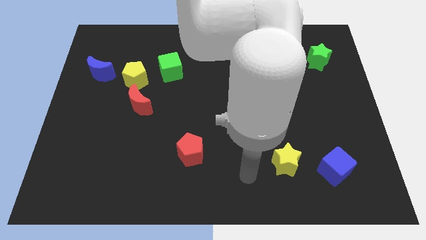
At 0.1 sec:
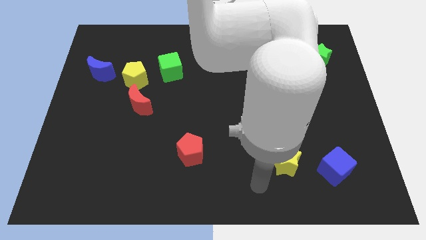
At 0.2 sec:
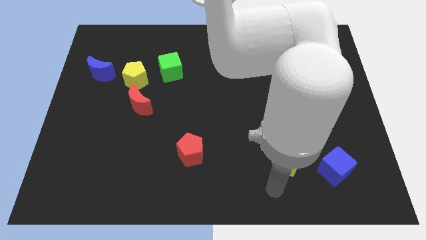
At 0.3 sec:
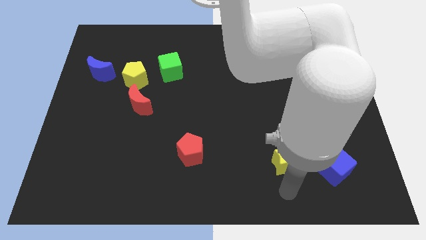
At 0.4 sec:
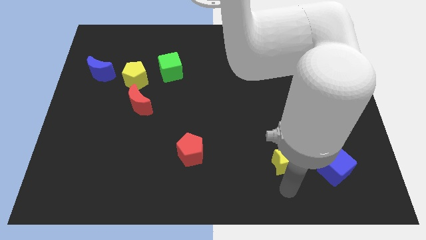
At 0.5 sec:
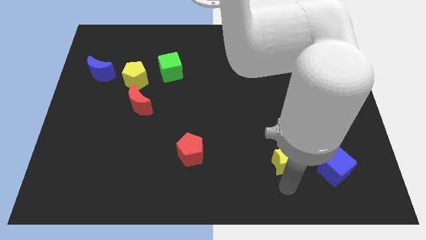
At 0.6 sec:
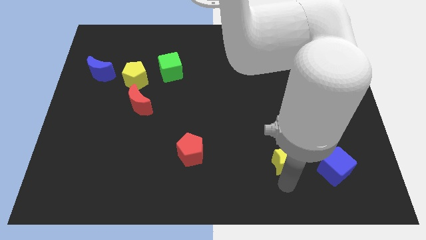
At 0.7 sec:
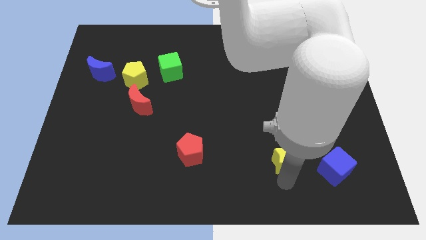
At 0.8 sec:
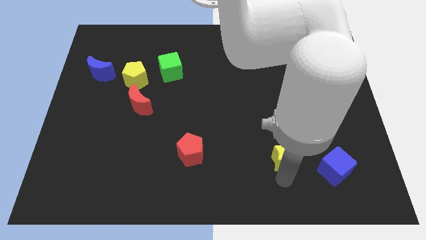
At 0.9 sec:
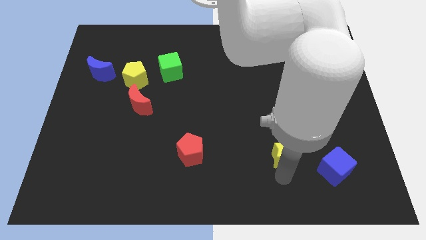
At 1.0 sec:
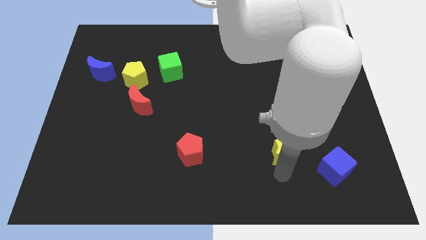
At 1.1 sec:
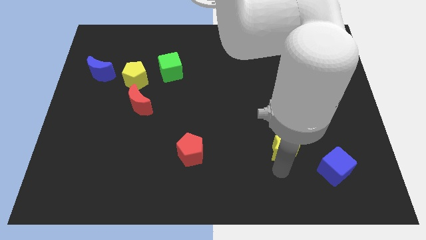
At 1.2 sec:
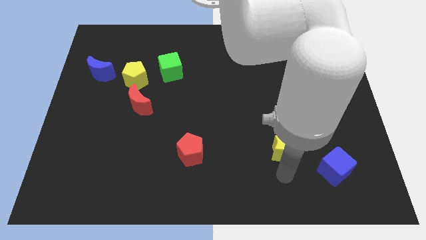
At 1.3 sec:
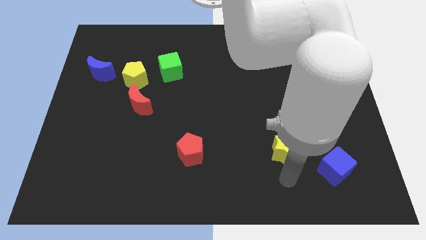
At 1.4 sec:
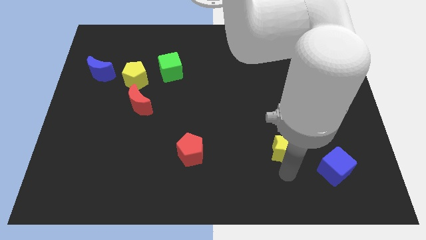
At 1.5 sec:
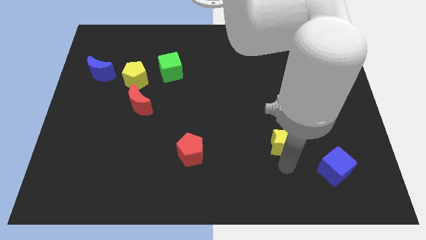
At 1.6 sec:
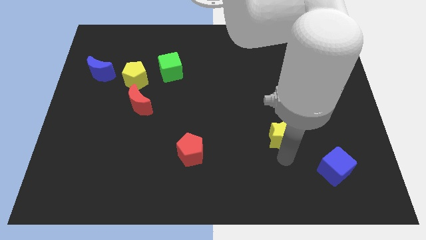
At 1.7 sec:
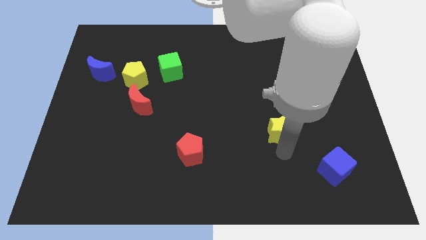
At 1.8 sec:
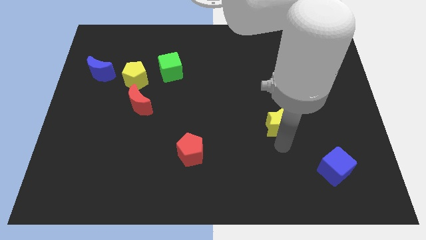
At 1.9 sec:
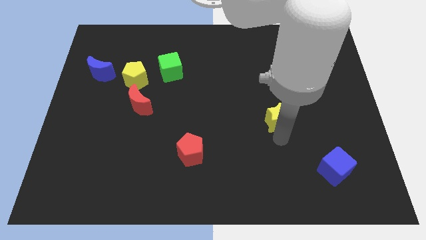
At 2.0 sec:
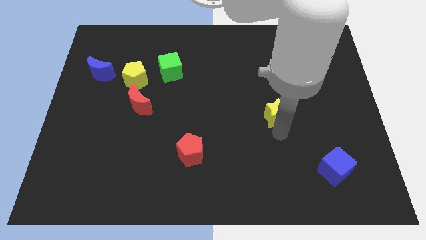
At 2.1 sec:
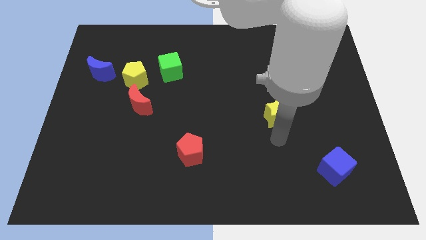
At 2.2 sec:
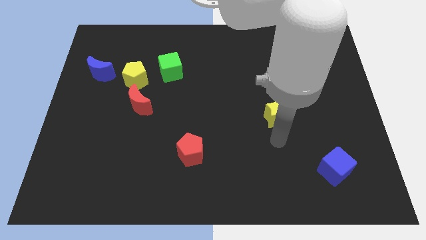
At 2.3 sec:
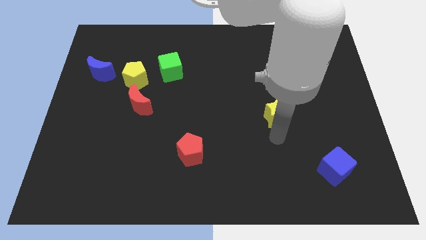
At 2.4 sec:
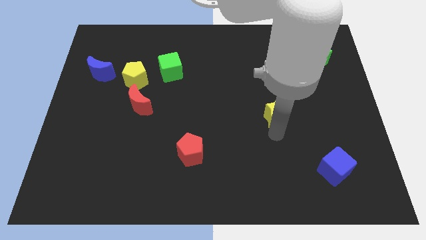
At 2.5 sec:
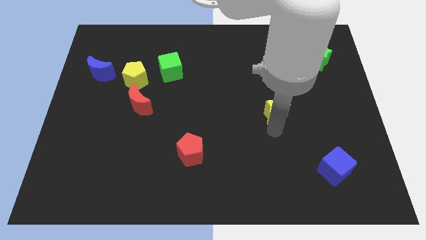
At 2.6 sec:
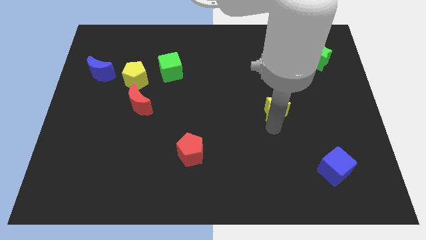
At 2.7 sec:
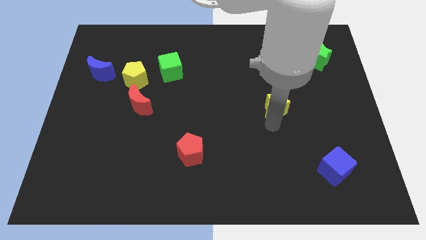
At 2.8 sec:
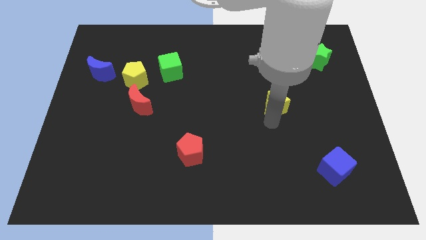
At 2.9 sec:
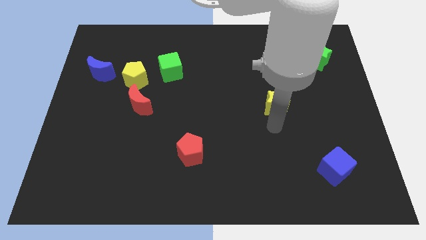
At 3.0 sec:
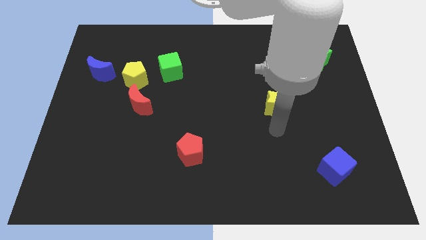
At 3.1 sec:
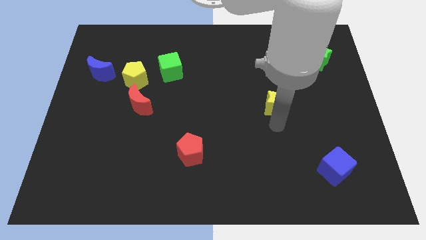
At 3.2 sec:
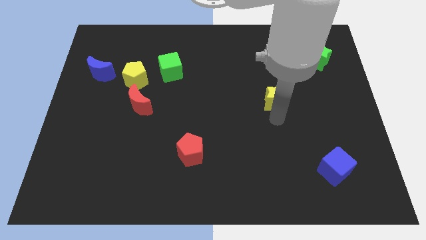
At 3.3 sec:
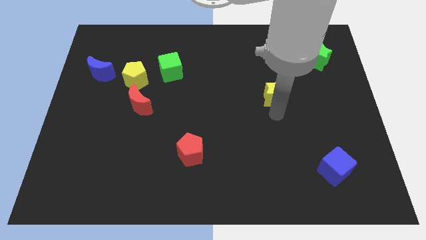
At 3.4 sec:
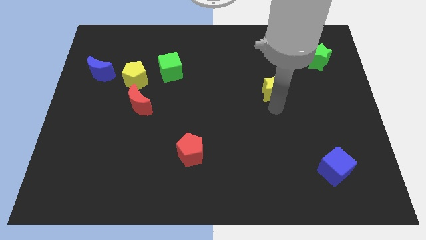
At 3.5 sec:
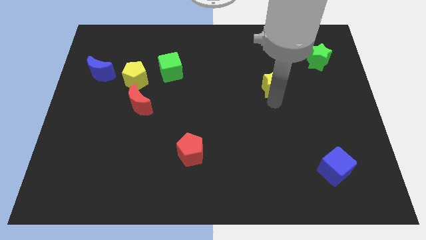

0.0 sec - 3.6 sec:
push the yellow star up

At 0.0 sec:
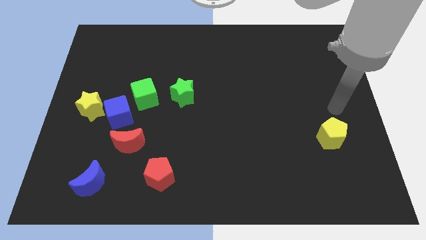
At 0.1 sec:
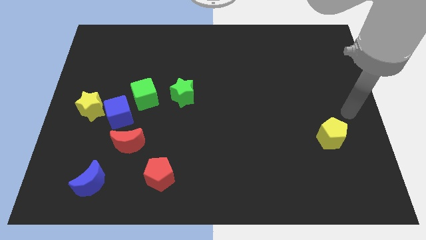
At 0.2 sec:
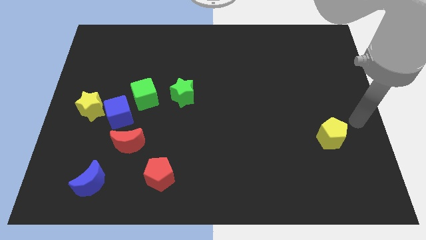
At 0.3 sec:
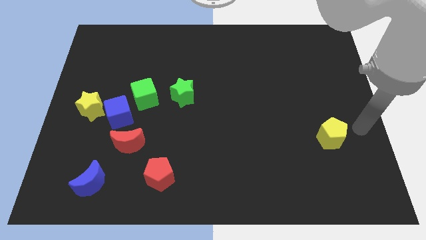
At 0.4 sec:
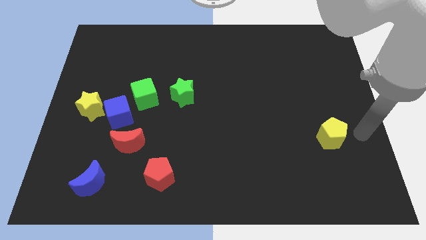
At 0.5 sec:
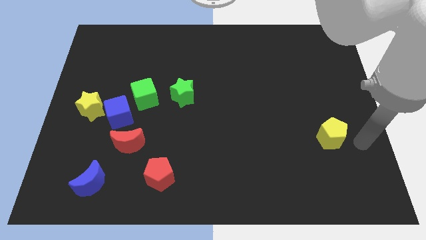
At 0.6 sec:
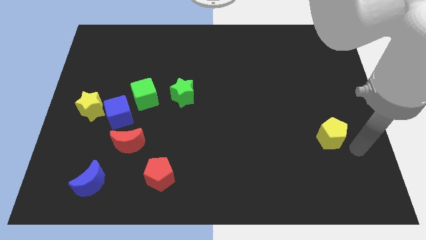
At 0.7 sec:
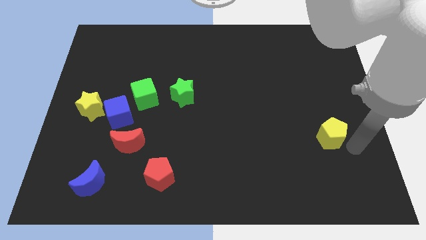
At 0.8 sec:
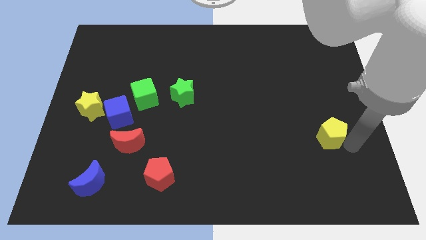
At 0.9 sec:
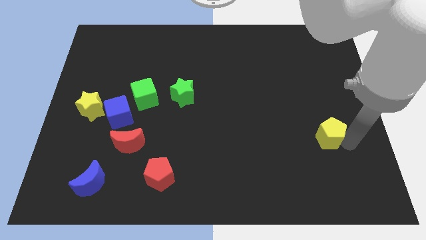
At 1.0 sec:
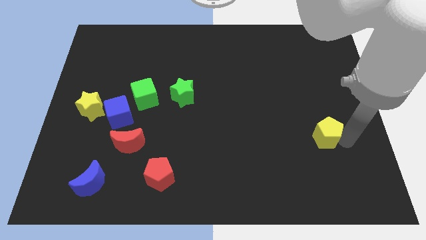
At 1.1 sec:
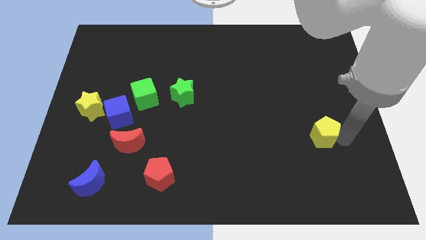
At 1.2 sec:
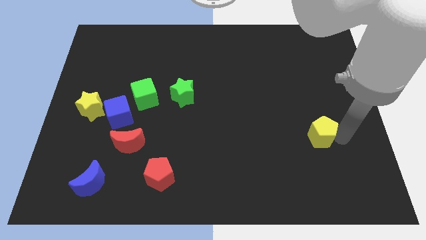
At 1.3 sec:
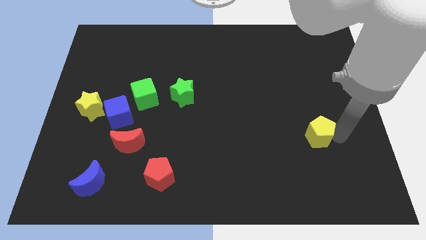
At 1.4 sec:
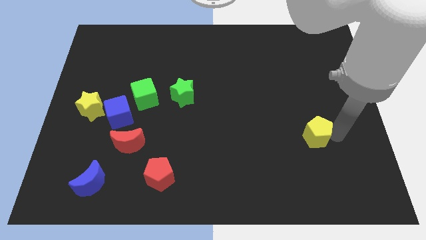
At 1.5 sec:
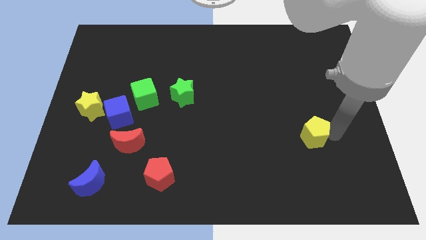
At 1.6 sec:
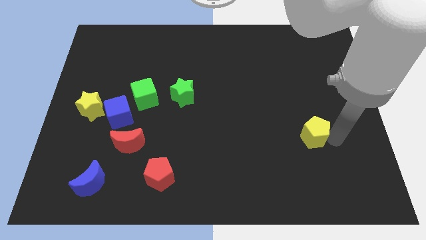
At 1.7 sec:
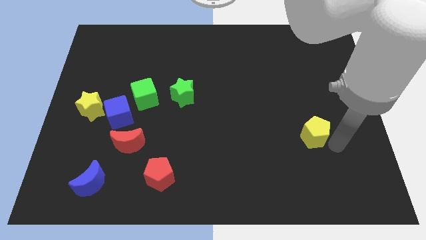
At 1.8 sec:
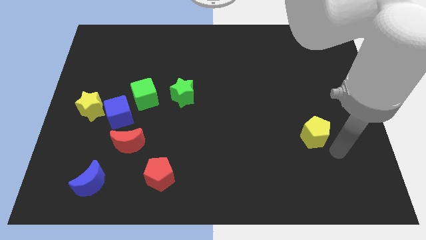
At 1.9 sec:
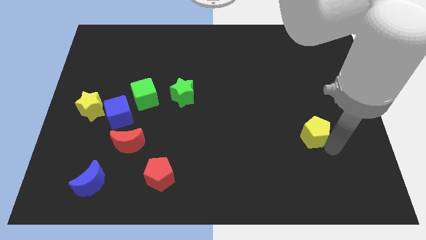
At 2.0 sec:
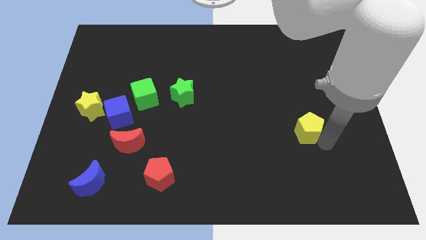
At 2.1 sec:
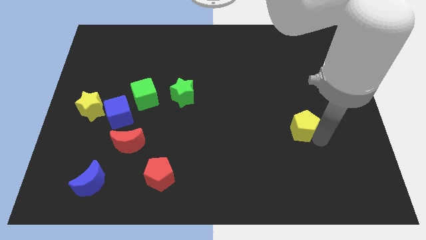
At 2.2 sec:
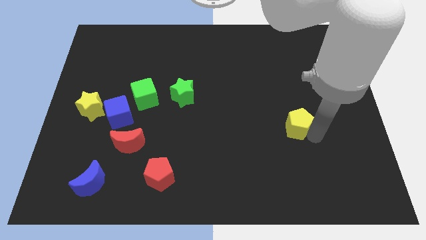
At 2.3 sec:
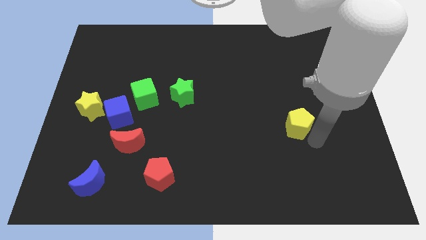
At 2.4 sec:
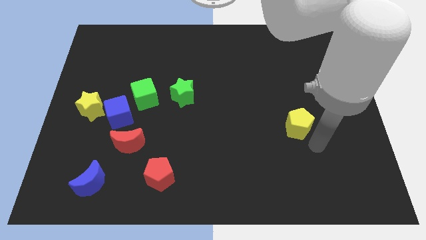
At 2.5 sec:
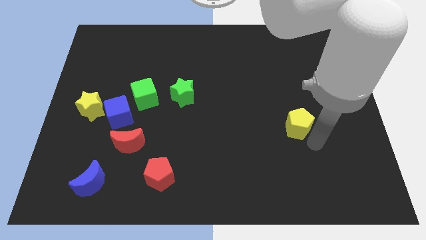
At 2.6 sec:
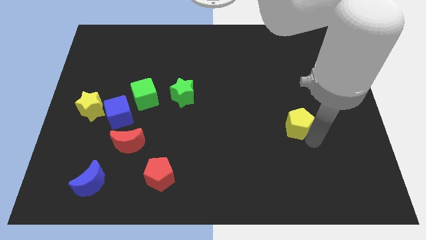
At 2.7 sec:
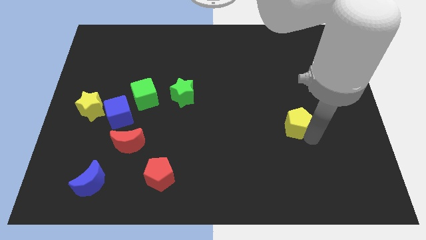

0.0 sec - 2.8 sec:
move the yellow pentagon diagonally up and to the left slightly

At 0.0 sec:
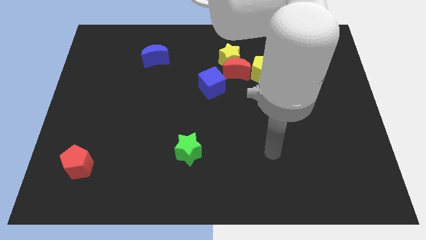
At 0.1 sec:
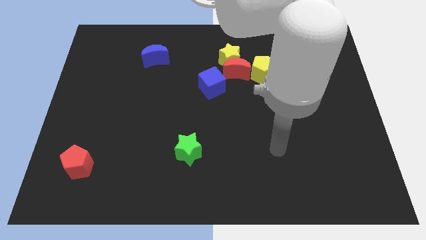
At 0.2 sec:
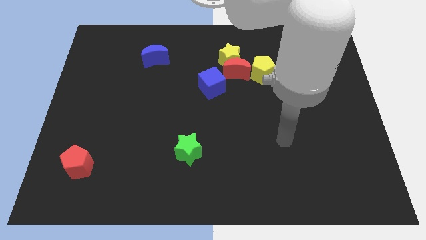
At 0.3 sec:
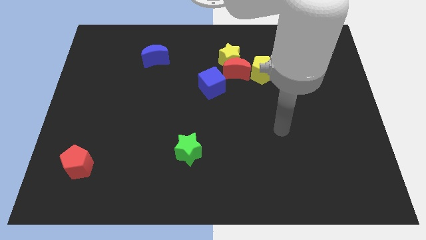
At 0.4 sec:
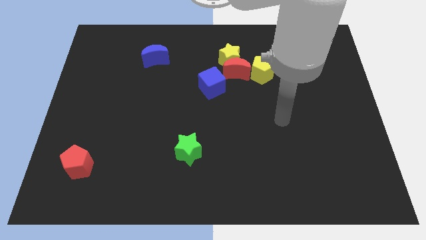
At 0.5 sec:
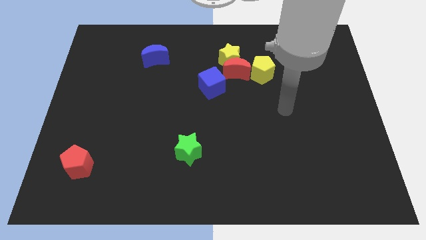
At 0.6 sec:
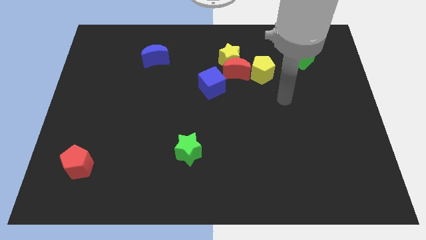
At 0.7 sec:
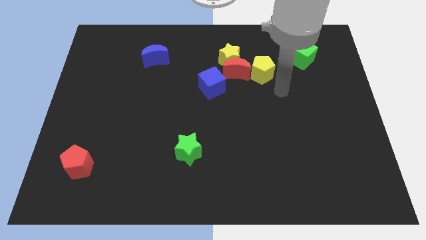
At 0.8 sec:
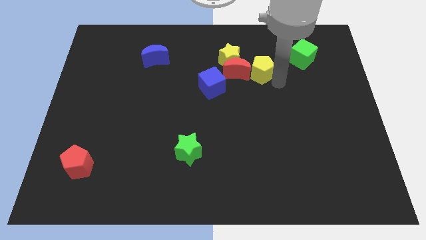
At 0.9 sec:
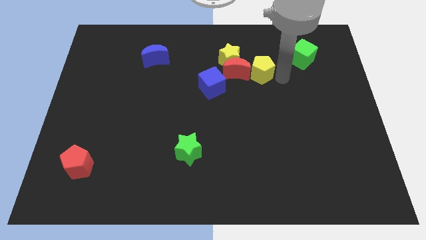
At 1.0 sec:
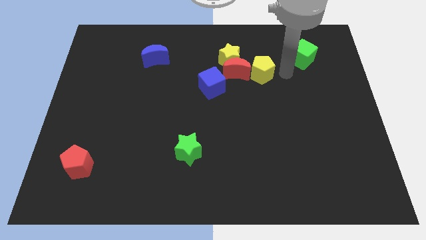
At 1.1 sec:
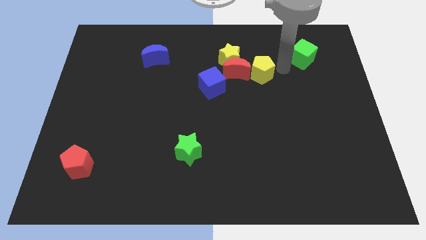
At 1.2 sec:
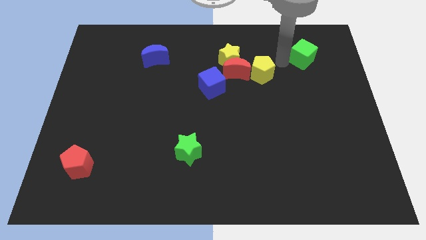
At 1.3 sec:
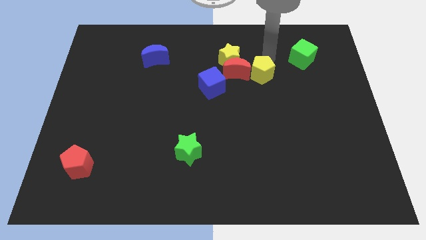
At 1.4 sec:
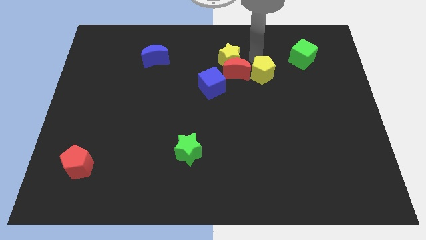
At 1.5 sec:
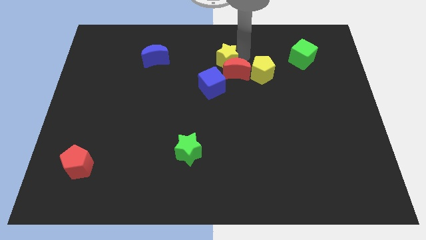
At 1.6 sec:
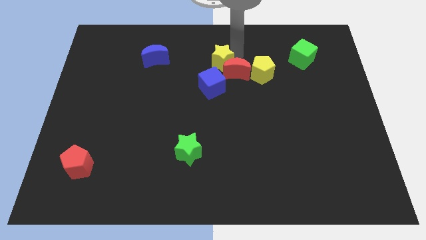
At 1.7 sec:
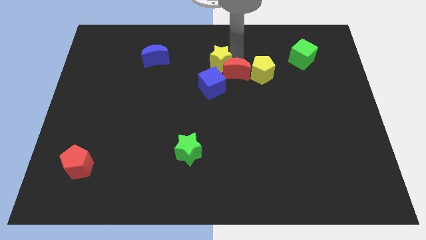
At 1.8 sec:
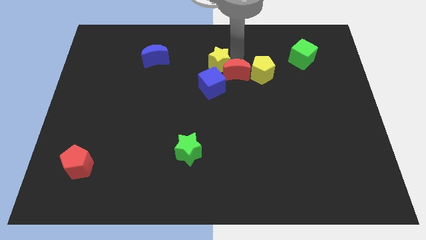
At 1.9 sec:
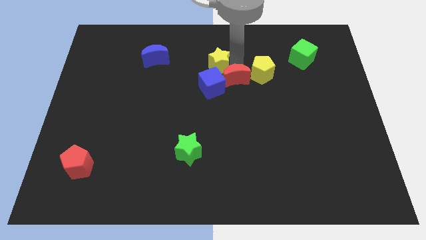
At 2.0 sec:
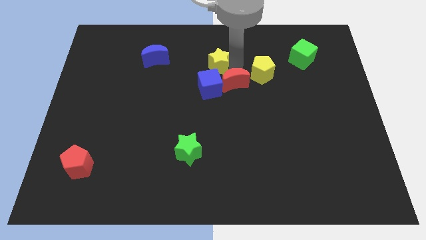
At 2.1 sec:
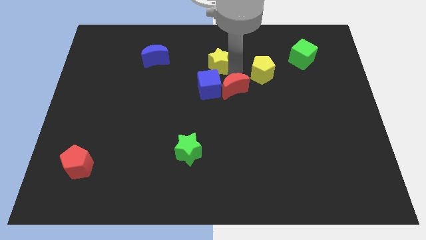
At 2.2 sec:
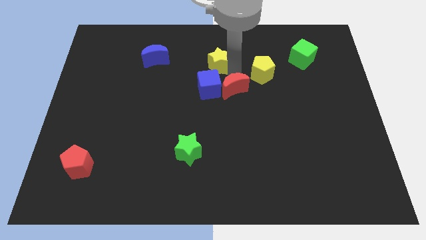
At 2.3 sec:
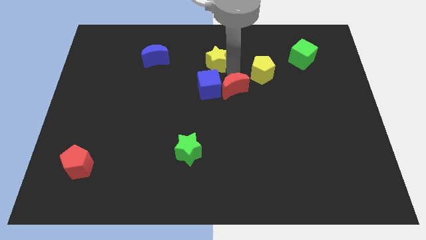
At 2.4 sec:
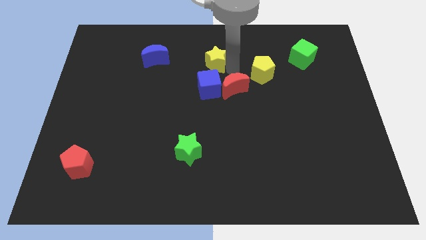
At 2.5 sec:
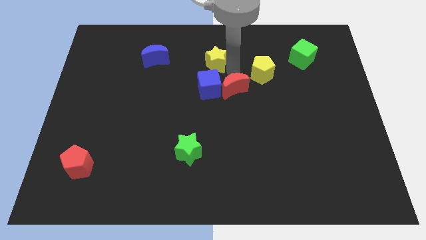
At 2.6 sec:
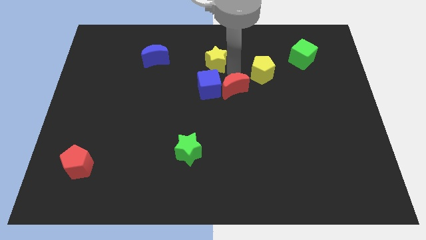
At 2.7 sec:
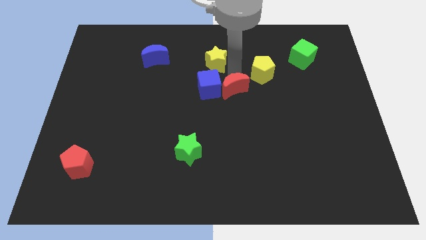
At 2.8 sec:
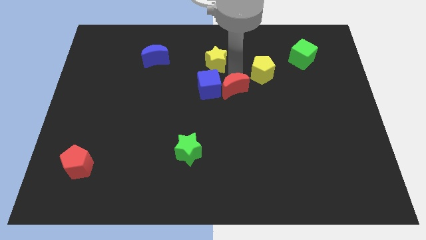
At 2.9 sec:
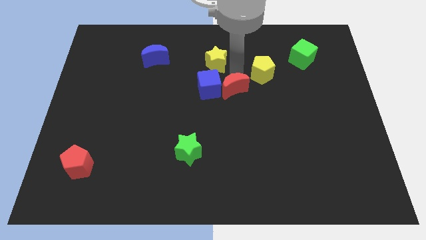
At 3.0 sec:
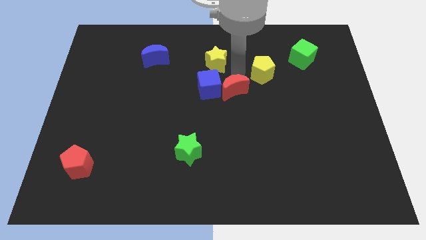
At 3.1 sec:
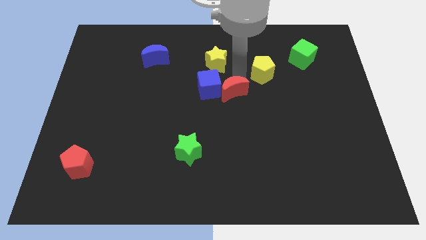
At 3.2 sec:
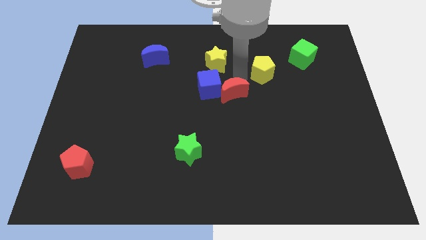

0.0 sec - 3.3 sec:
push the red moon a little bit down
